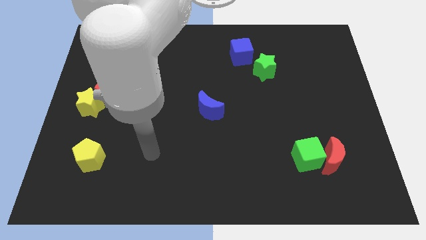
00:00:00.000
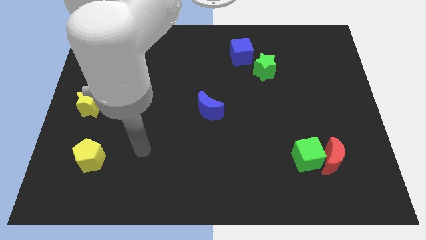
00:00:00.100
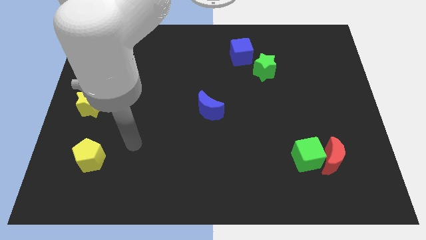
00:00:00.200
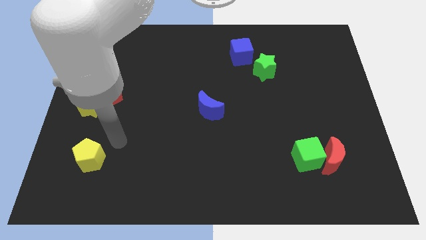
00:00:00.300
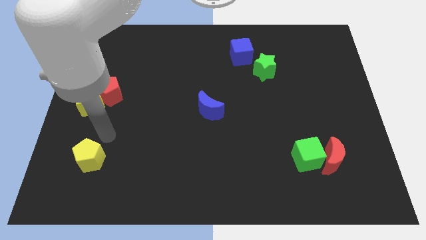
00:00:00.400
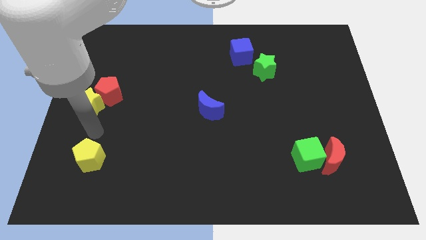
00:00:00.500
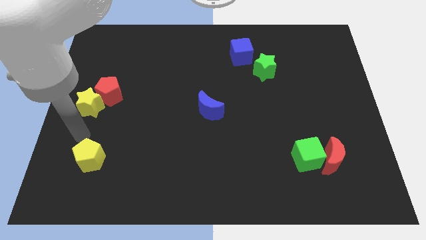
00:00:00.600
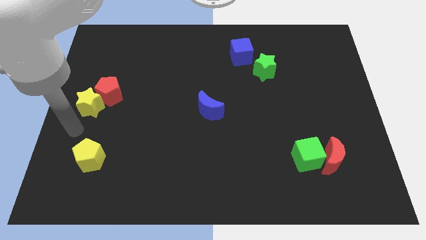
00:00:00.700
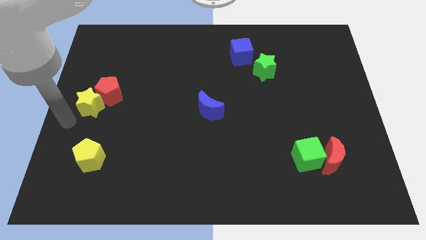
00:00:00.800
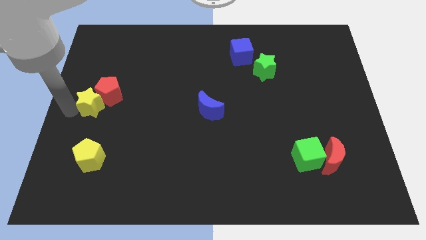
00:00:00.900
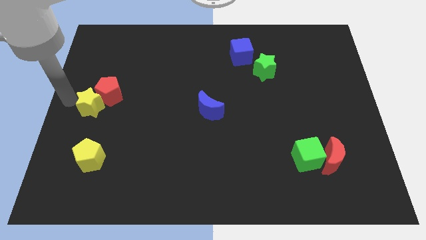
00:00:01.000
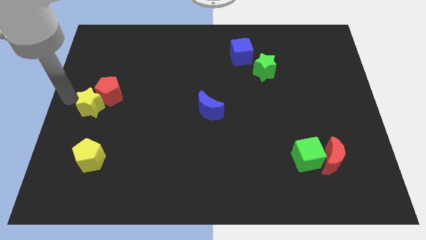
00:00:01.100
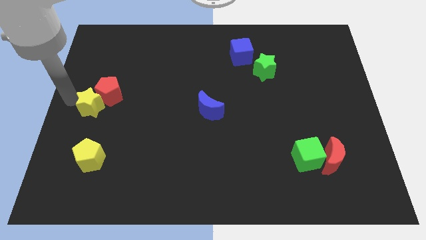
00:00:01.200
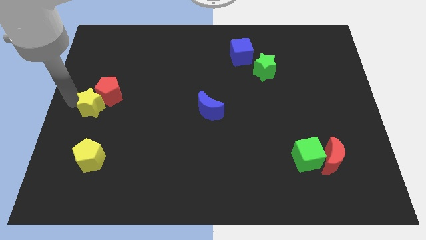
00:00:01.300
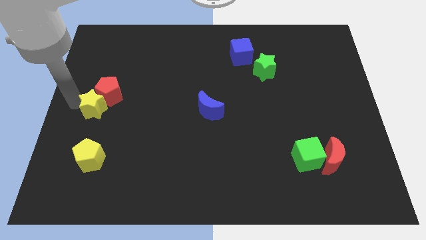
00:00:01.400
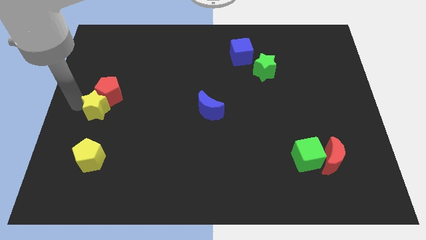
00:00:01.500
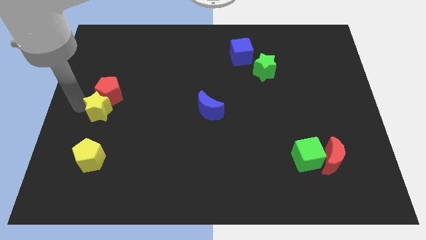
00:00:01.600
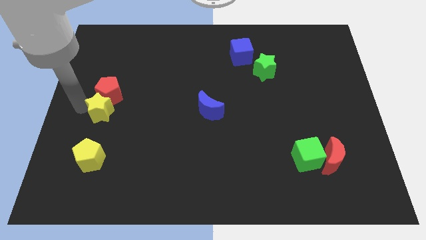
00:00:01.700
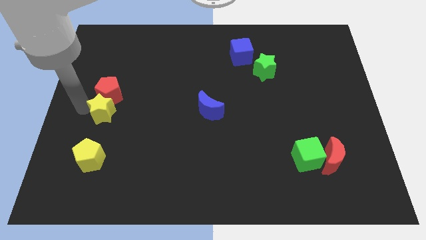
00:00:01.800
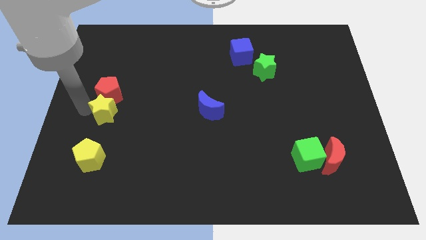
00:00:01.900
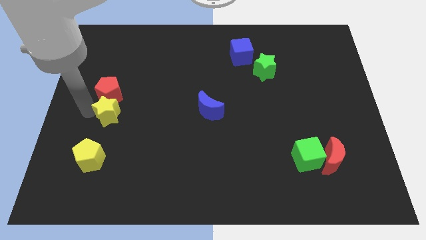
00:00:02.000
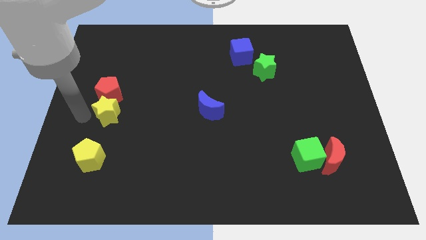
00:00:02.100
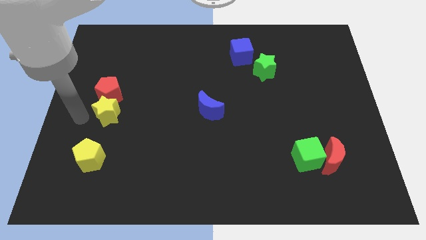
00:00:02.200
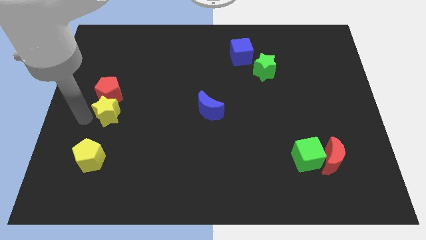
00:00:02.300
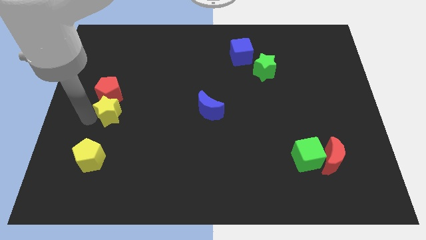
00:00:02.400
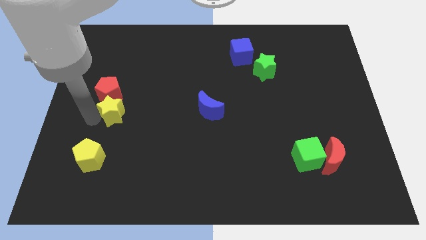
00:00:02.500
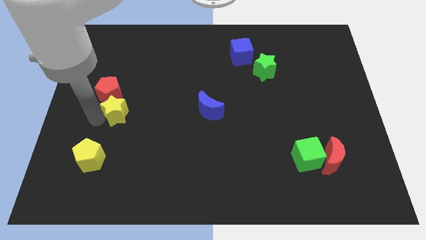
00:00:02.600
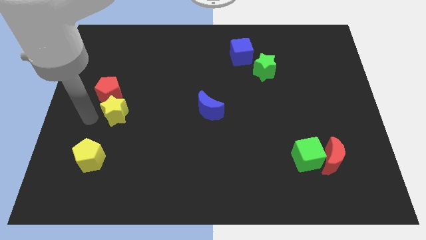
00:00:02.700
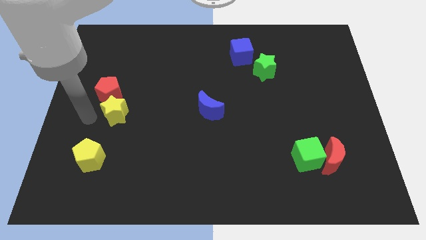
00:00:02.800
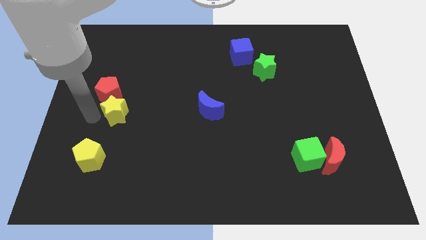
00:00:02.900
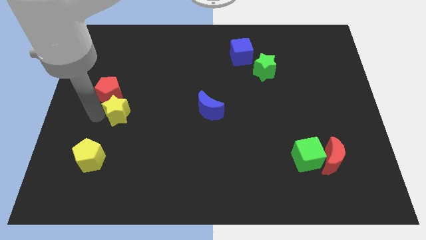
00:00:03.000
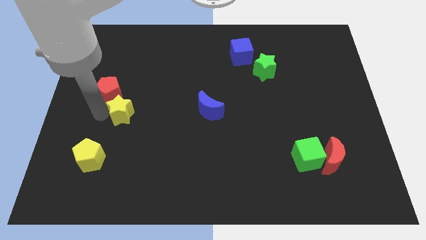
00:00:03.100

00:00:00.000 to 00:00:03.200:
slightly move the yellow star right

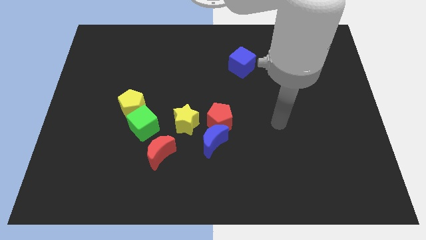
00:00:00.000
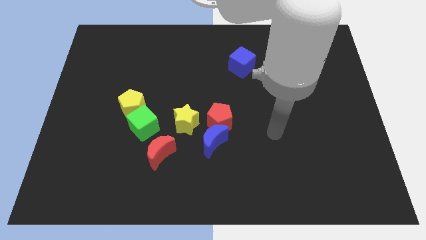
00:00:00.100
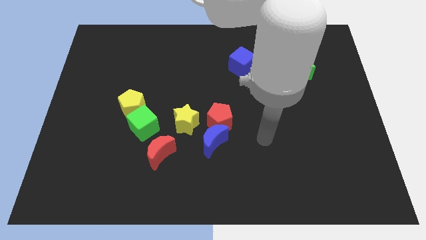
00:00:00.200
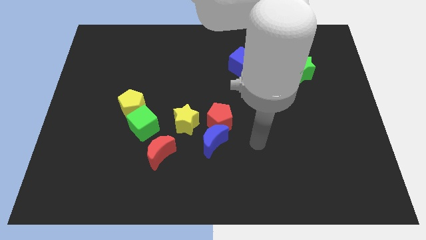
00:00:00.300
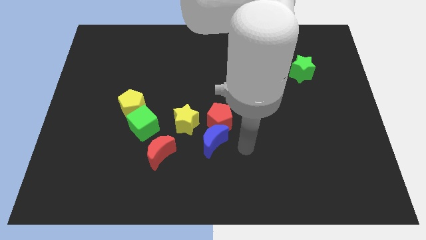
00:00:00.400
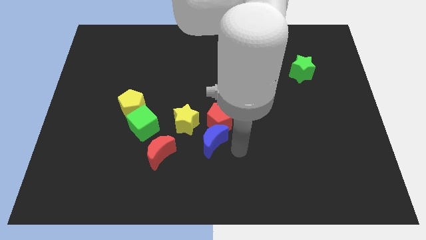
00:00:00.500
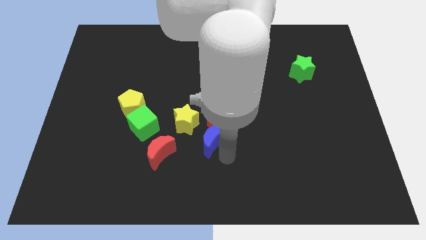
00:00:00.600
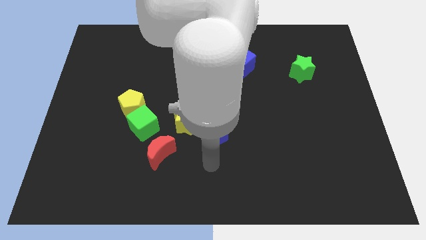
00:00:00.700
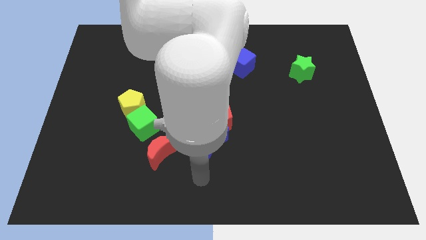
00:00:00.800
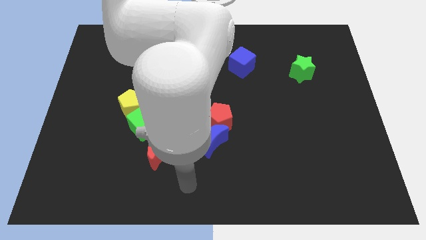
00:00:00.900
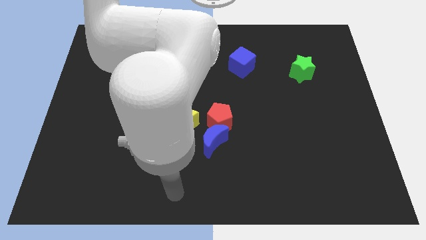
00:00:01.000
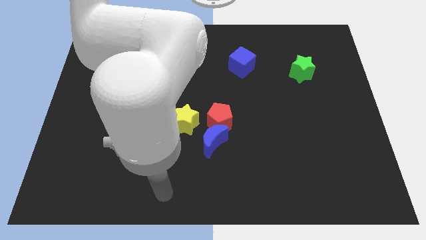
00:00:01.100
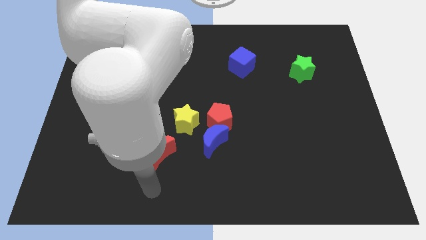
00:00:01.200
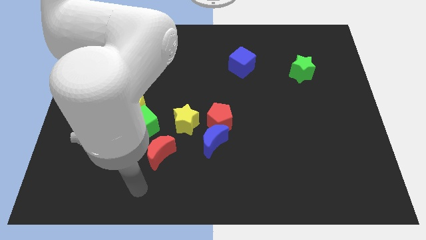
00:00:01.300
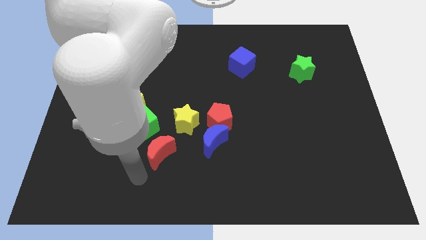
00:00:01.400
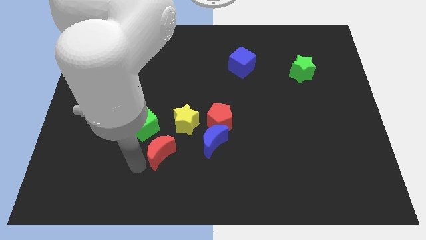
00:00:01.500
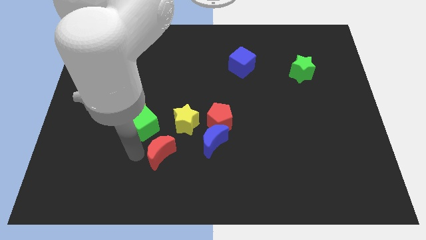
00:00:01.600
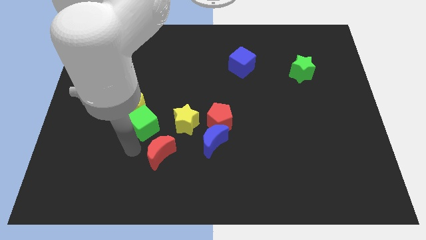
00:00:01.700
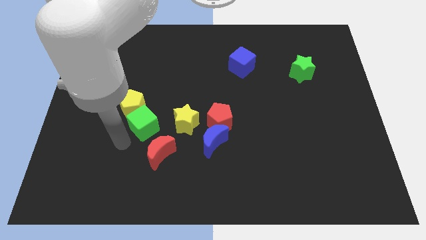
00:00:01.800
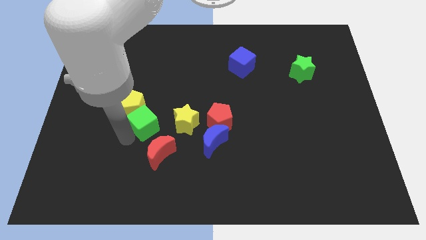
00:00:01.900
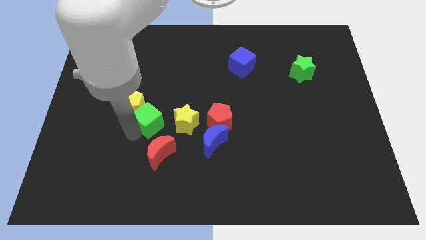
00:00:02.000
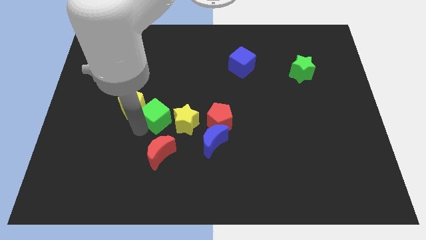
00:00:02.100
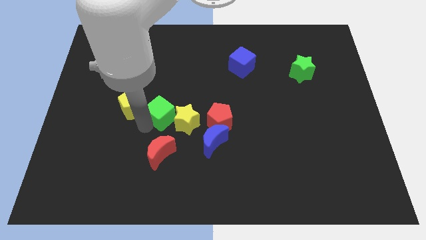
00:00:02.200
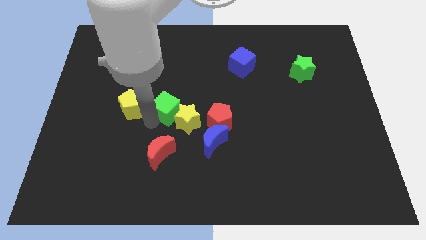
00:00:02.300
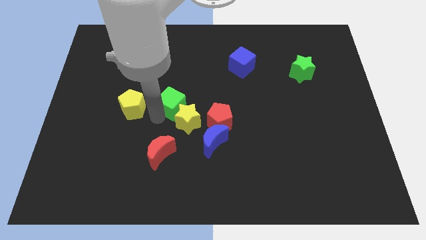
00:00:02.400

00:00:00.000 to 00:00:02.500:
push the green cube a bit upwards and right

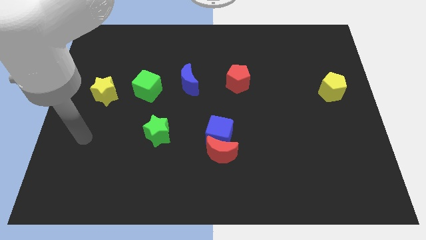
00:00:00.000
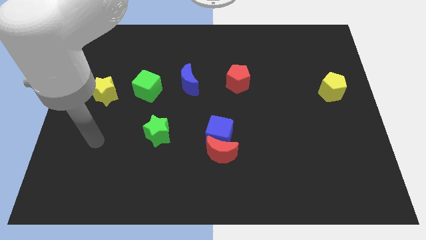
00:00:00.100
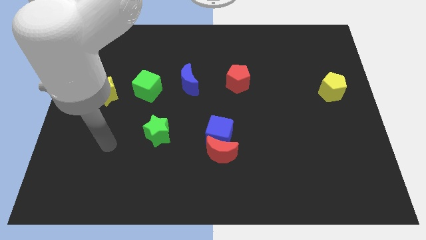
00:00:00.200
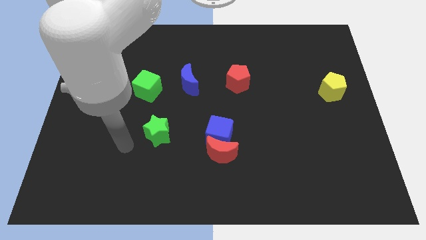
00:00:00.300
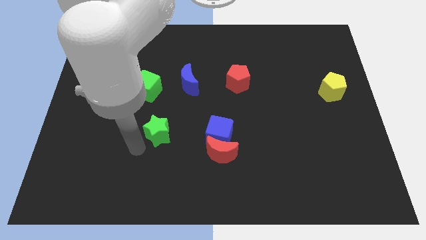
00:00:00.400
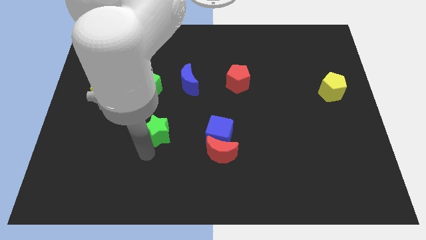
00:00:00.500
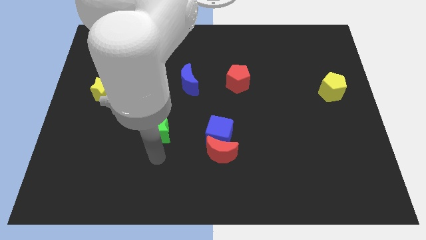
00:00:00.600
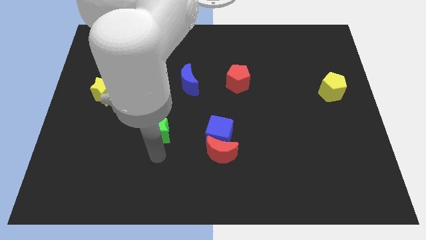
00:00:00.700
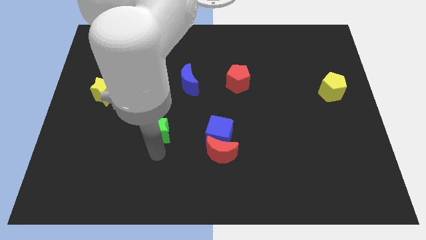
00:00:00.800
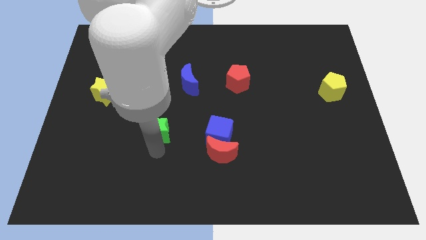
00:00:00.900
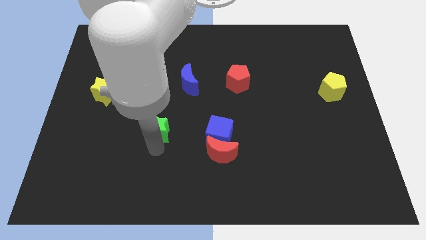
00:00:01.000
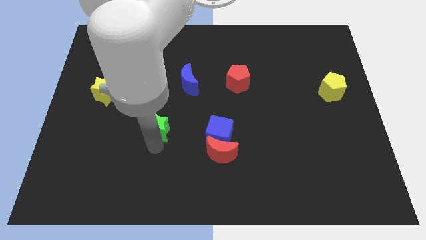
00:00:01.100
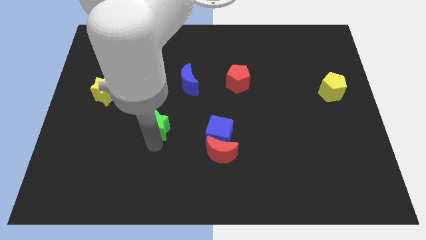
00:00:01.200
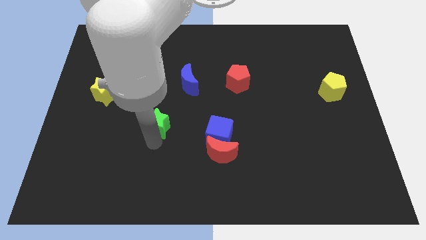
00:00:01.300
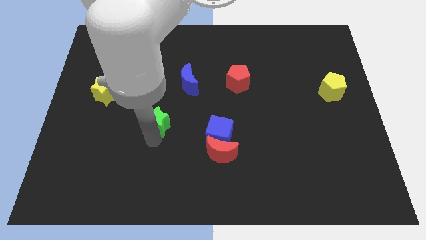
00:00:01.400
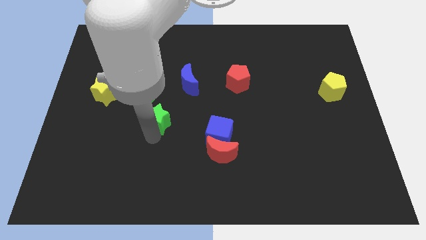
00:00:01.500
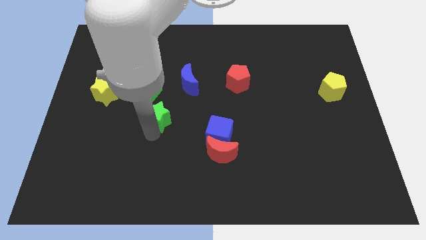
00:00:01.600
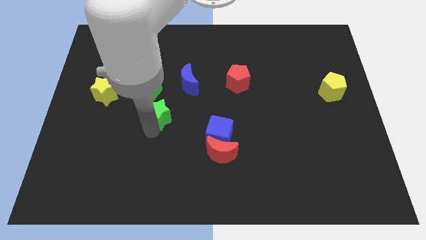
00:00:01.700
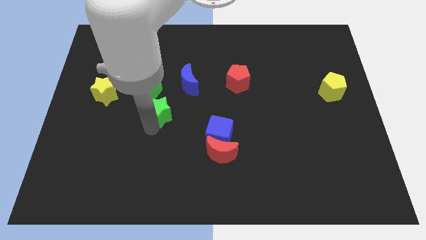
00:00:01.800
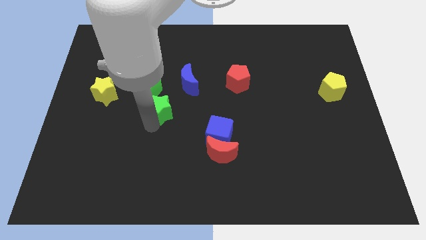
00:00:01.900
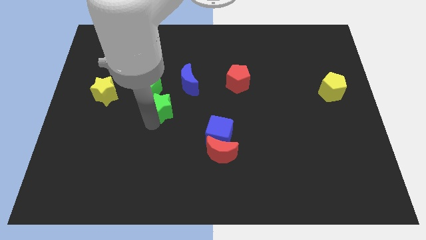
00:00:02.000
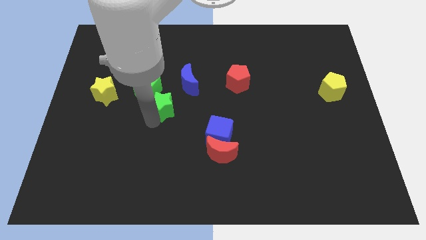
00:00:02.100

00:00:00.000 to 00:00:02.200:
slightly slide the green star upwards

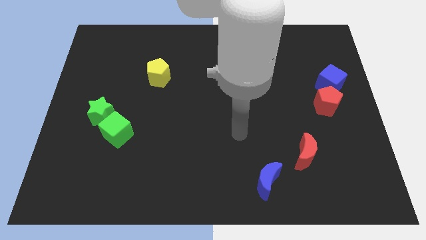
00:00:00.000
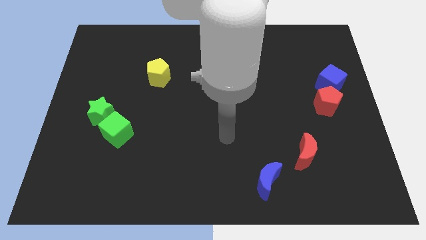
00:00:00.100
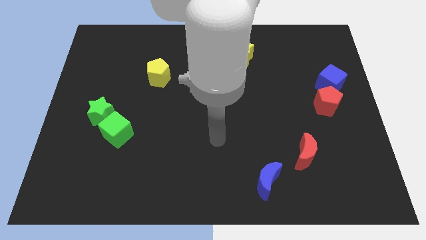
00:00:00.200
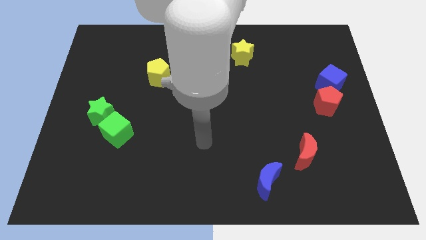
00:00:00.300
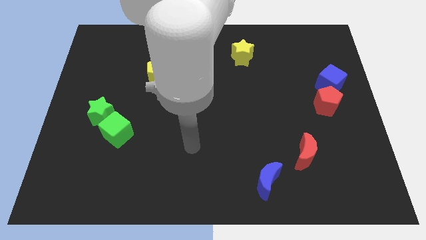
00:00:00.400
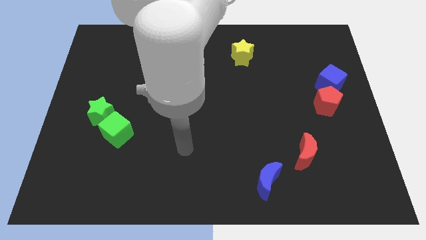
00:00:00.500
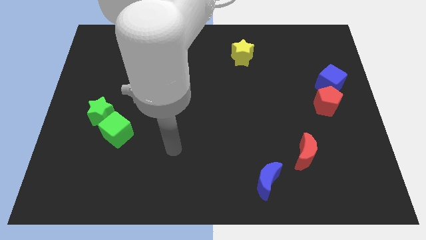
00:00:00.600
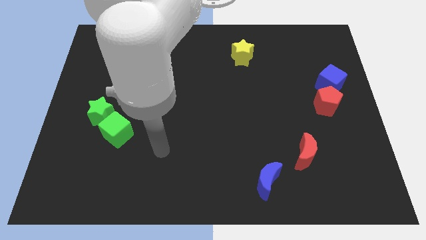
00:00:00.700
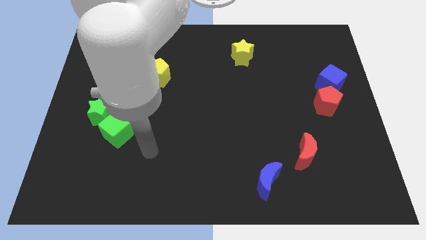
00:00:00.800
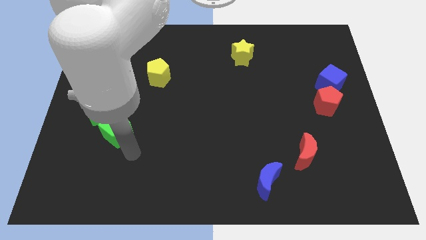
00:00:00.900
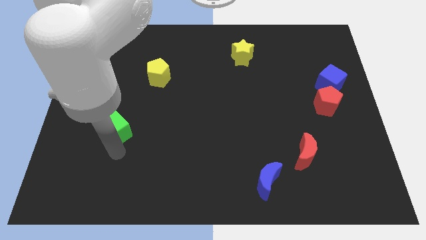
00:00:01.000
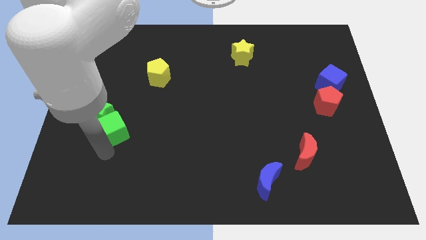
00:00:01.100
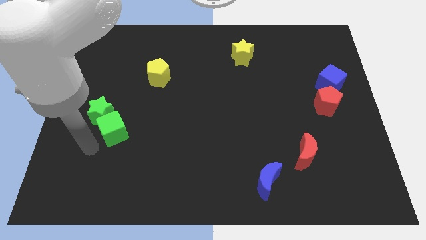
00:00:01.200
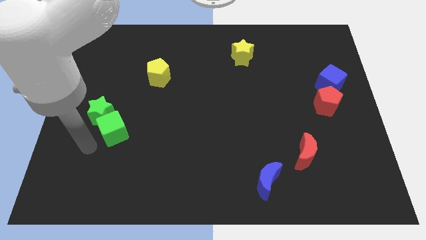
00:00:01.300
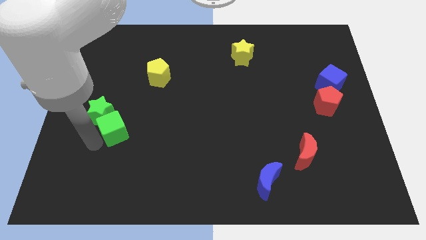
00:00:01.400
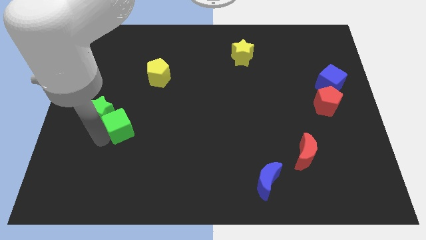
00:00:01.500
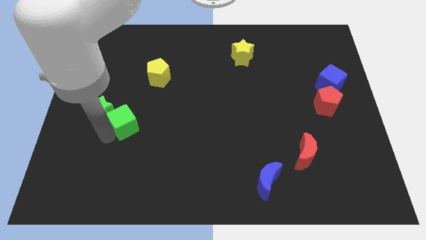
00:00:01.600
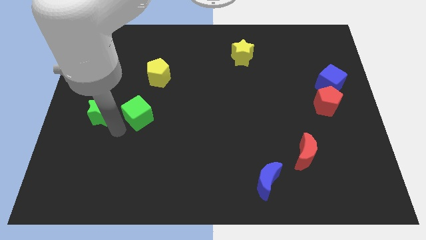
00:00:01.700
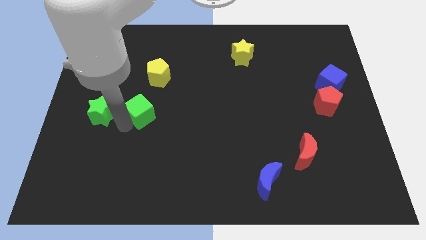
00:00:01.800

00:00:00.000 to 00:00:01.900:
push the green cube a little upwards and to the right diagonally
